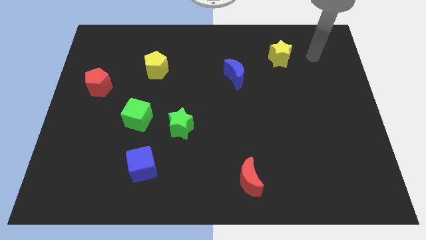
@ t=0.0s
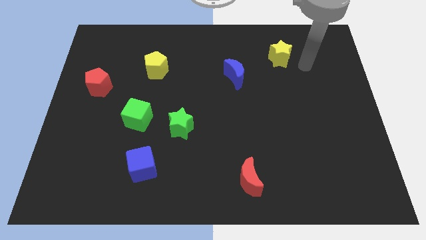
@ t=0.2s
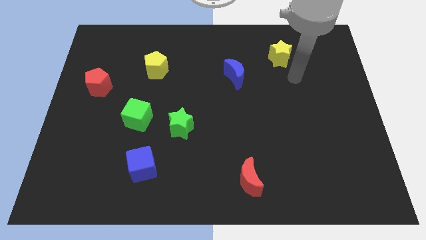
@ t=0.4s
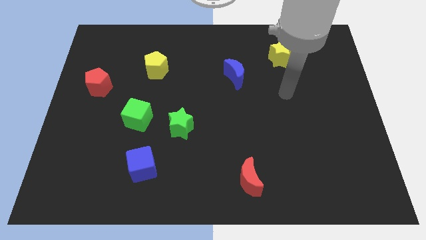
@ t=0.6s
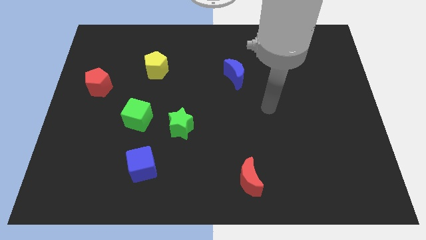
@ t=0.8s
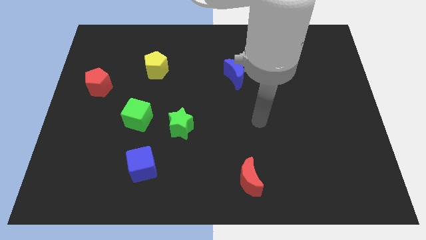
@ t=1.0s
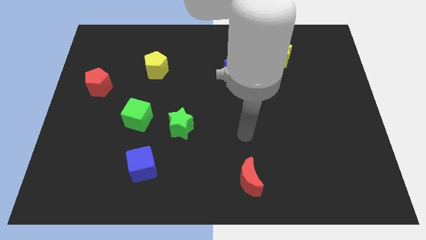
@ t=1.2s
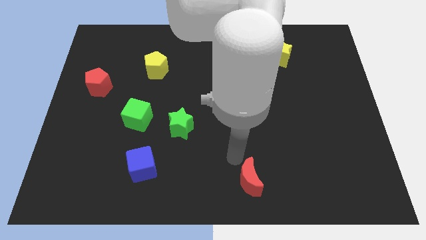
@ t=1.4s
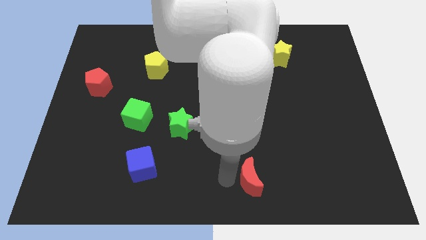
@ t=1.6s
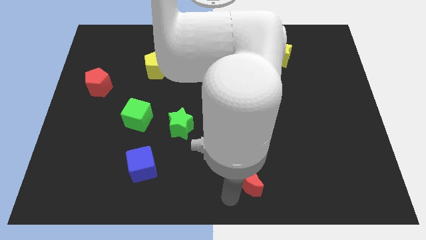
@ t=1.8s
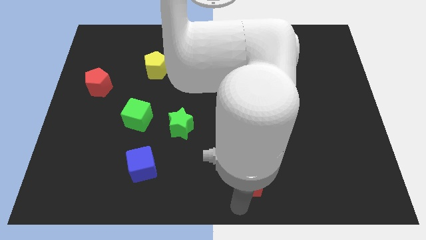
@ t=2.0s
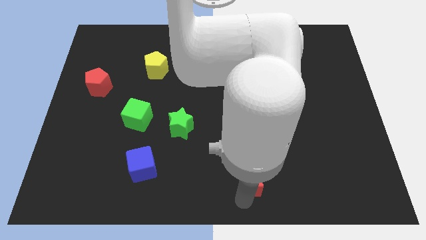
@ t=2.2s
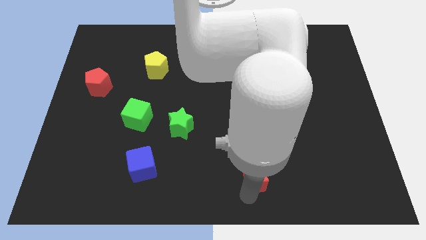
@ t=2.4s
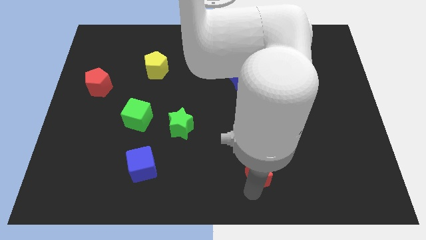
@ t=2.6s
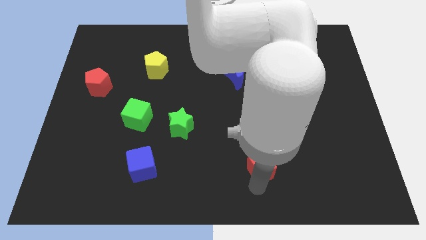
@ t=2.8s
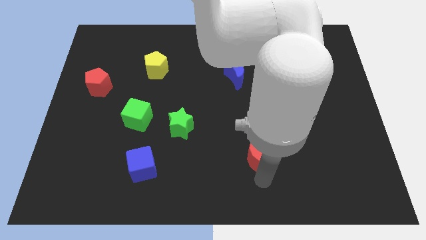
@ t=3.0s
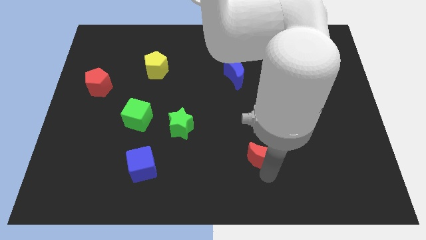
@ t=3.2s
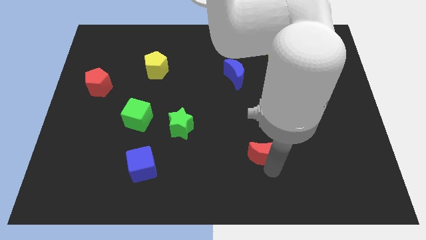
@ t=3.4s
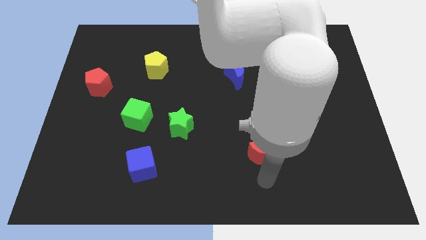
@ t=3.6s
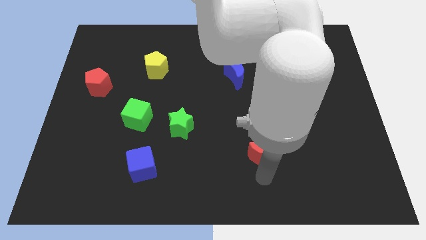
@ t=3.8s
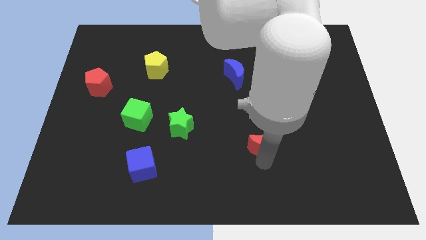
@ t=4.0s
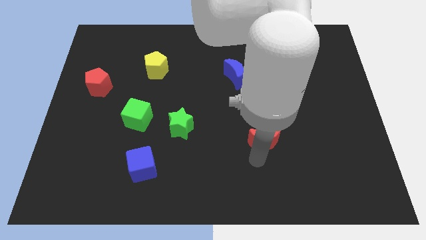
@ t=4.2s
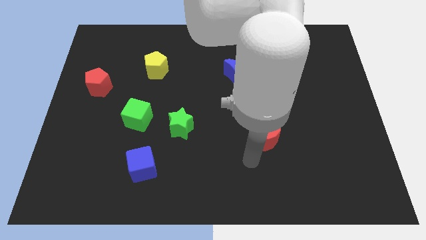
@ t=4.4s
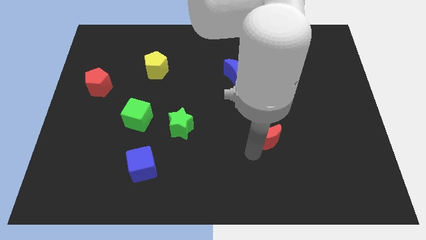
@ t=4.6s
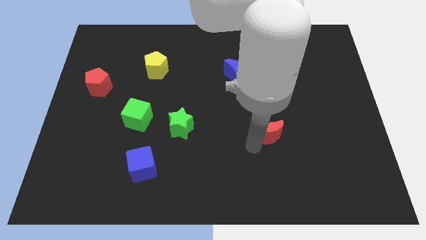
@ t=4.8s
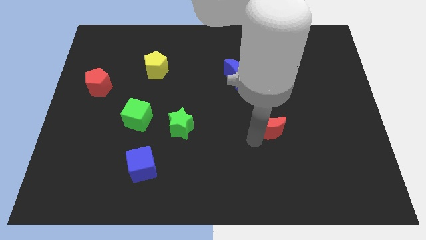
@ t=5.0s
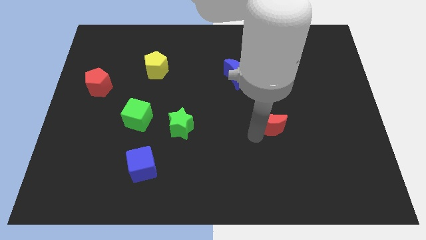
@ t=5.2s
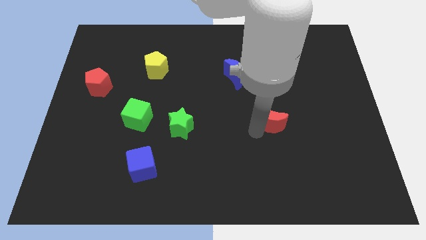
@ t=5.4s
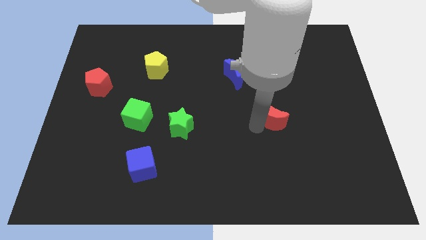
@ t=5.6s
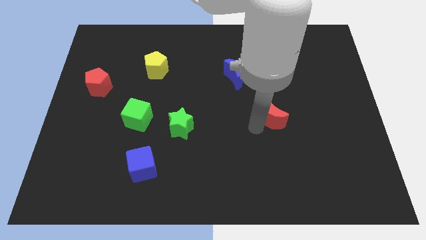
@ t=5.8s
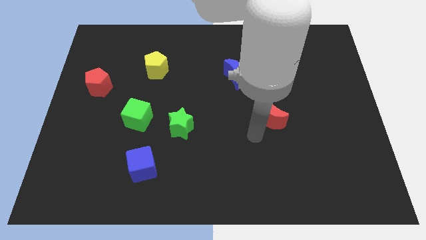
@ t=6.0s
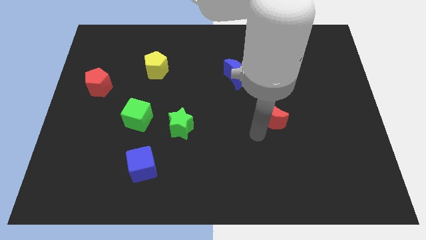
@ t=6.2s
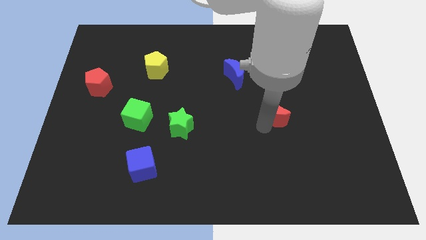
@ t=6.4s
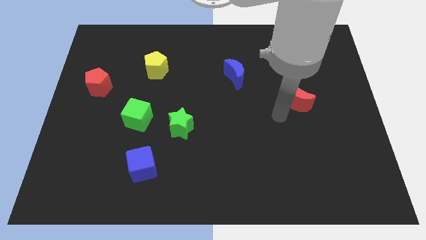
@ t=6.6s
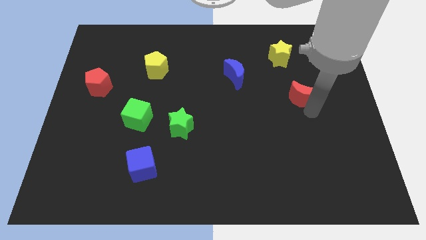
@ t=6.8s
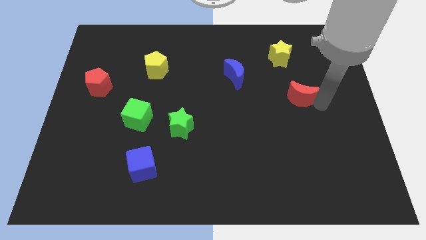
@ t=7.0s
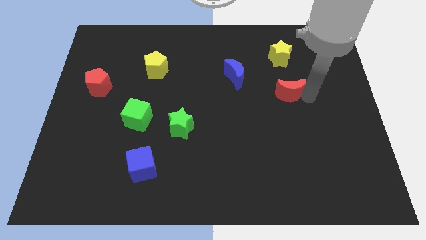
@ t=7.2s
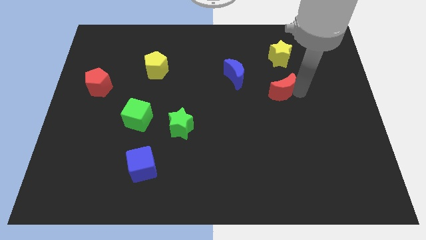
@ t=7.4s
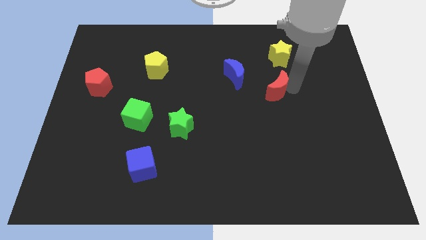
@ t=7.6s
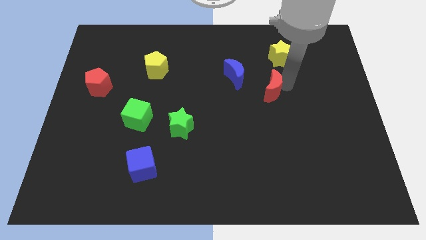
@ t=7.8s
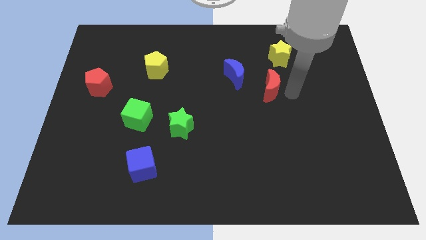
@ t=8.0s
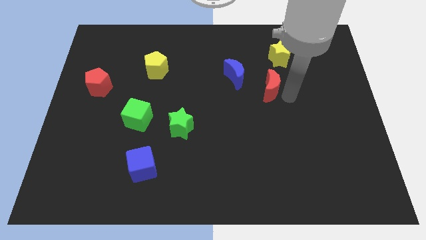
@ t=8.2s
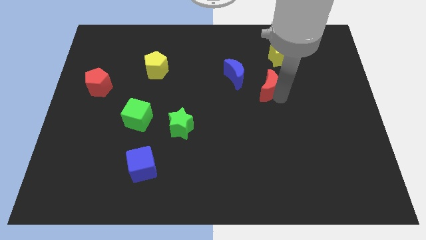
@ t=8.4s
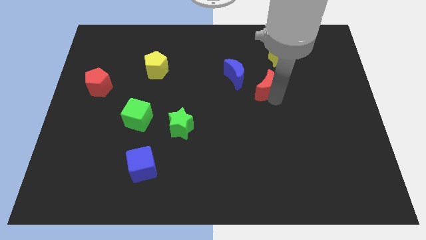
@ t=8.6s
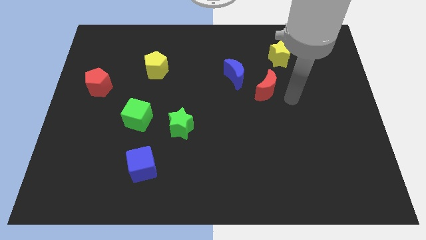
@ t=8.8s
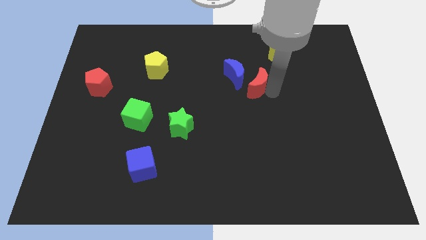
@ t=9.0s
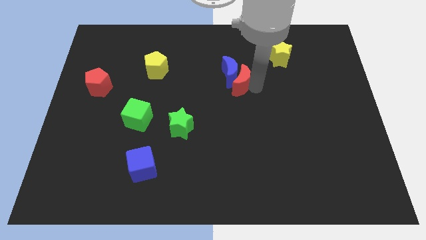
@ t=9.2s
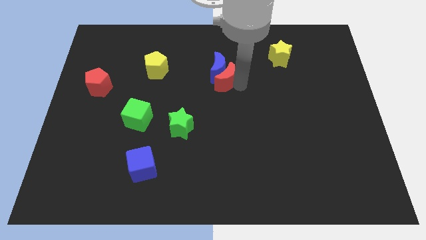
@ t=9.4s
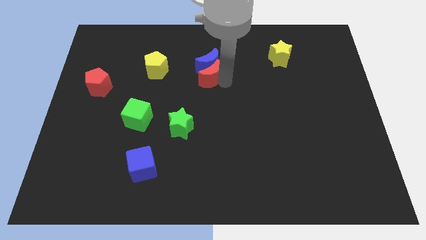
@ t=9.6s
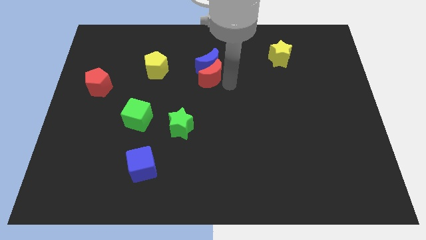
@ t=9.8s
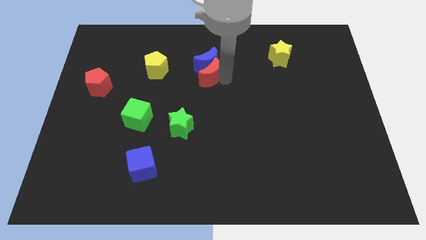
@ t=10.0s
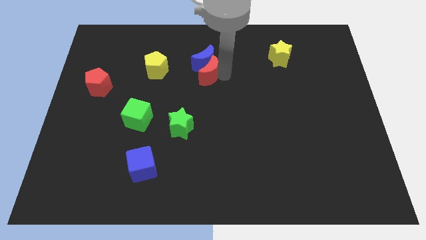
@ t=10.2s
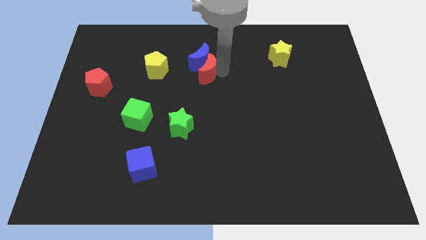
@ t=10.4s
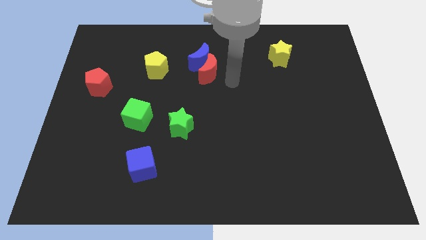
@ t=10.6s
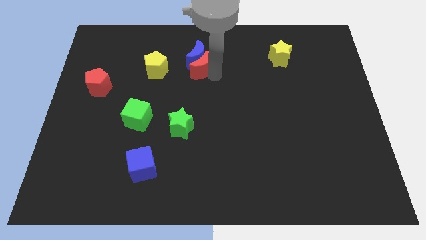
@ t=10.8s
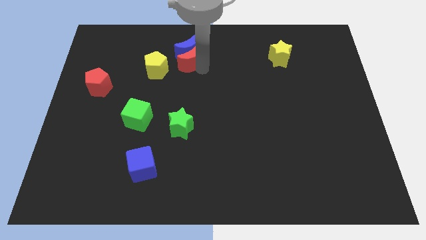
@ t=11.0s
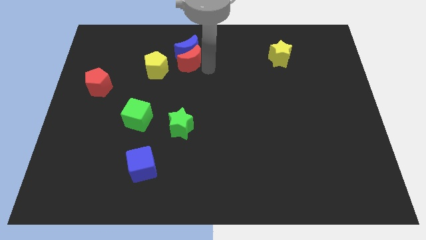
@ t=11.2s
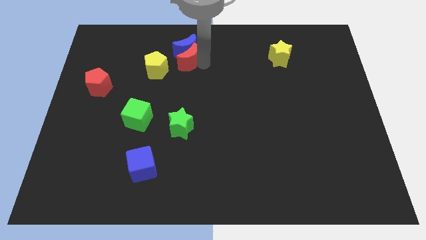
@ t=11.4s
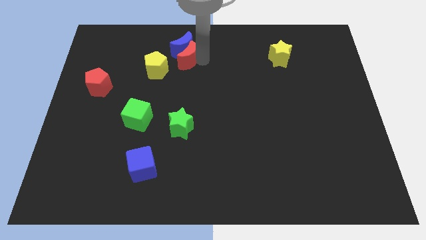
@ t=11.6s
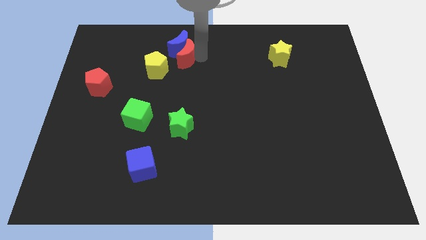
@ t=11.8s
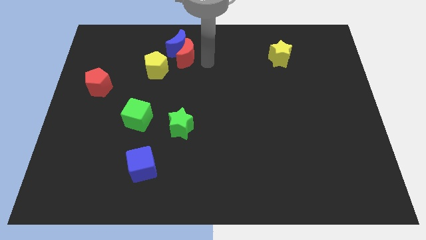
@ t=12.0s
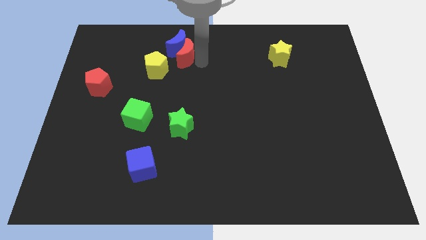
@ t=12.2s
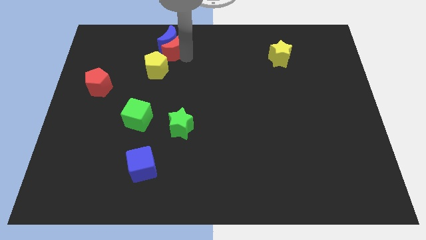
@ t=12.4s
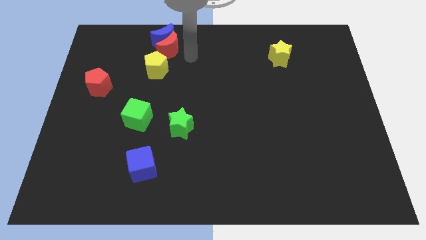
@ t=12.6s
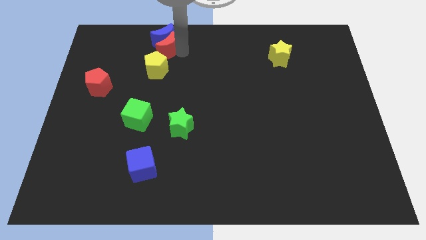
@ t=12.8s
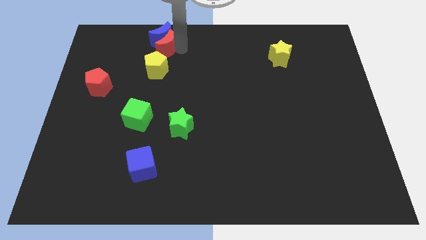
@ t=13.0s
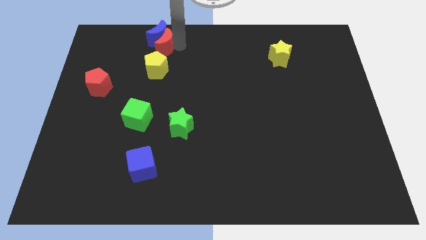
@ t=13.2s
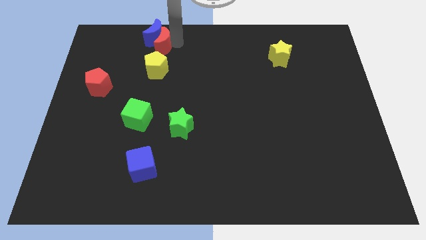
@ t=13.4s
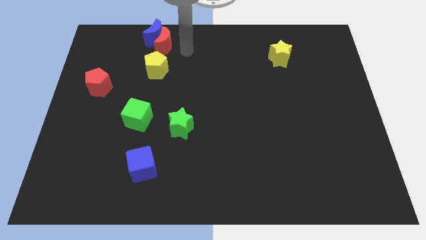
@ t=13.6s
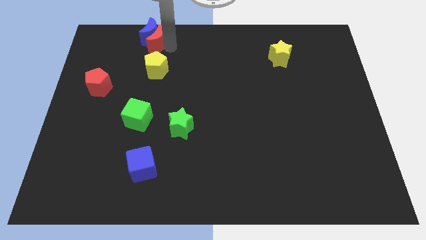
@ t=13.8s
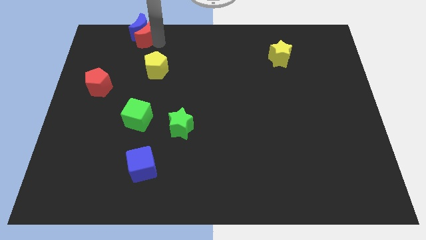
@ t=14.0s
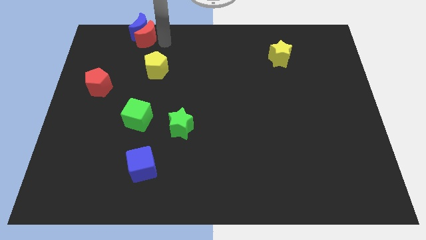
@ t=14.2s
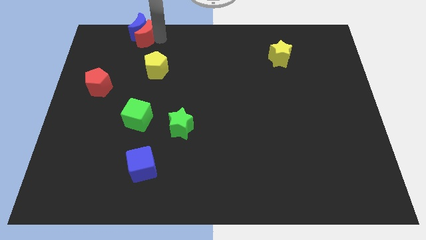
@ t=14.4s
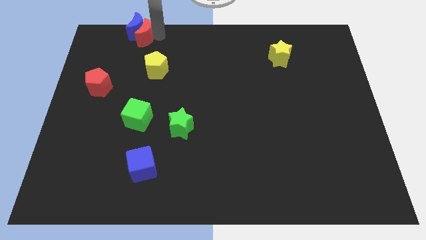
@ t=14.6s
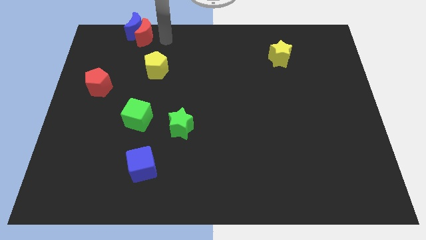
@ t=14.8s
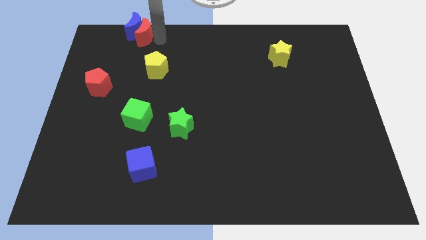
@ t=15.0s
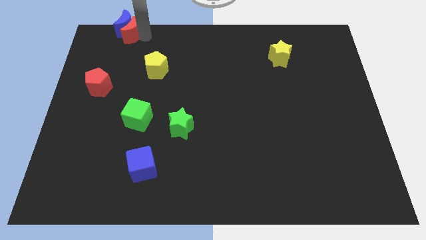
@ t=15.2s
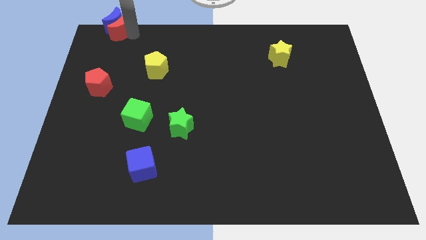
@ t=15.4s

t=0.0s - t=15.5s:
push the red moon to the upper left corner
